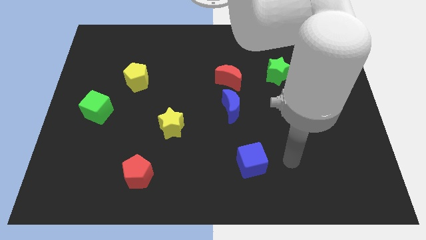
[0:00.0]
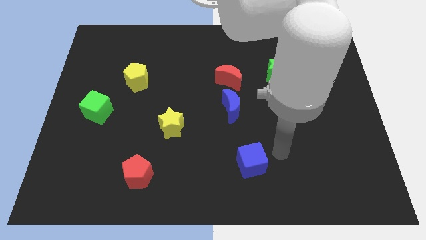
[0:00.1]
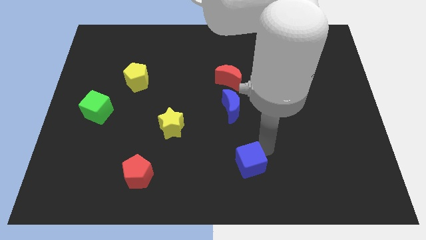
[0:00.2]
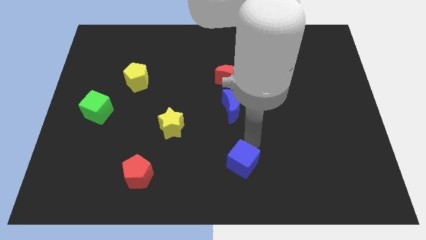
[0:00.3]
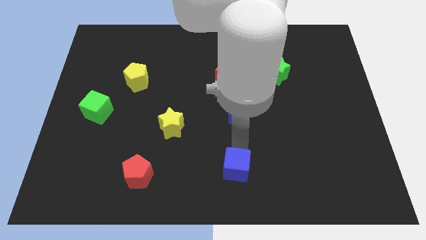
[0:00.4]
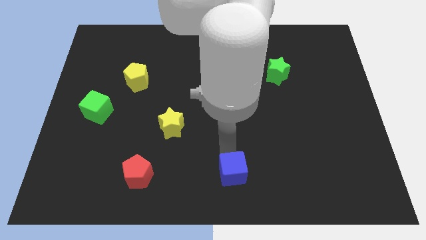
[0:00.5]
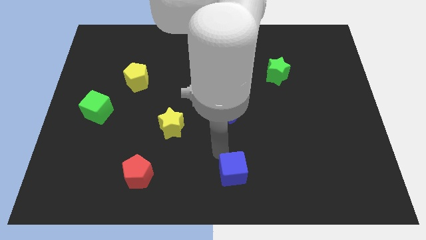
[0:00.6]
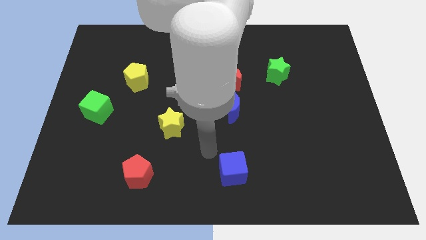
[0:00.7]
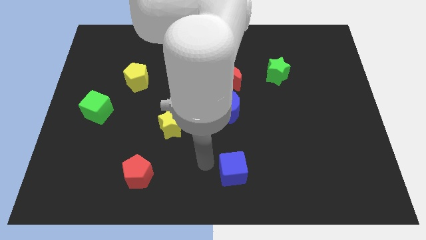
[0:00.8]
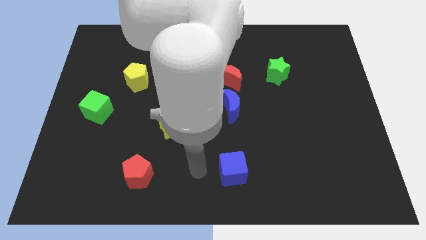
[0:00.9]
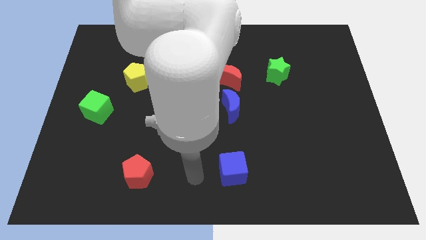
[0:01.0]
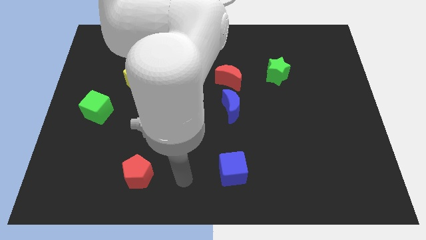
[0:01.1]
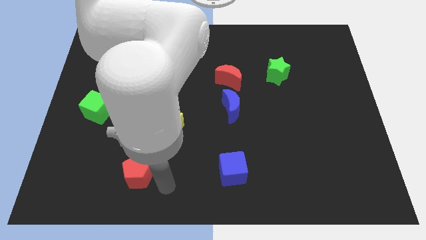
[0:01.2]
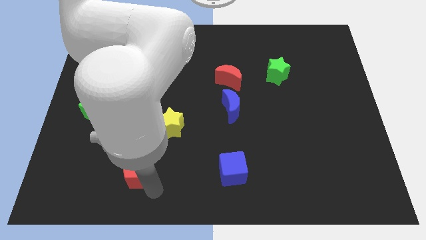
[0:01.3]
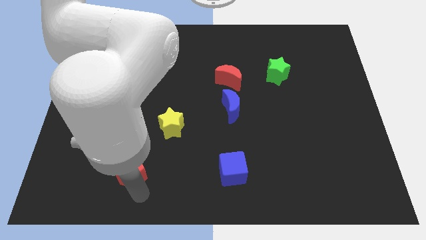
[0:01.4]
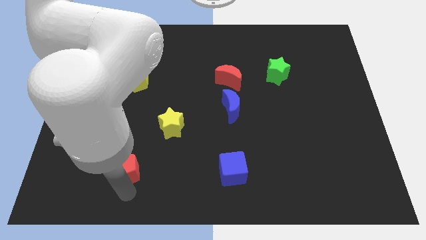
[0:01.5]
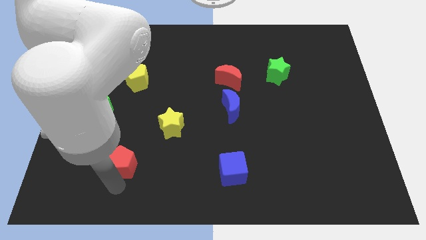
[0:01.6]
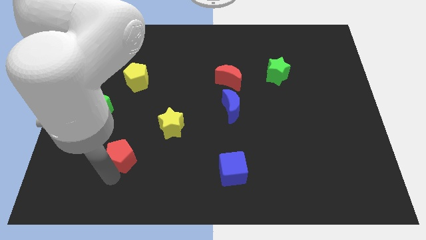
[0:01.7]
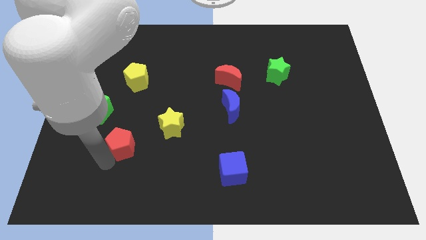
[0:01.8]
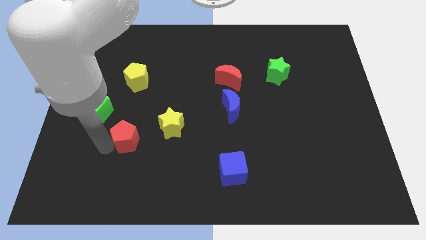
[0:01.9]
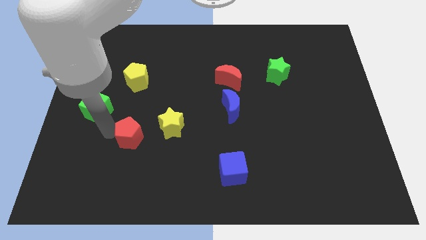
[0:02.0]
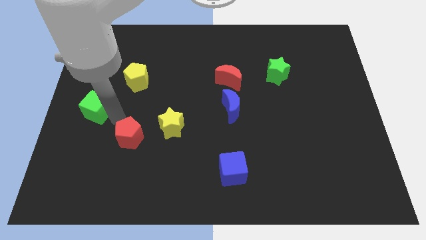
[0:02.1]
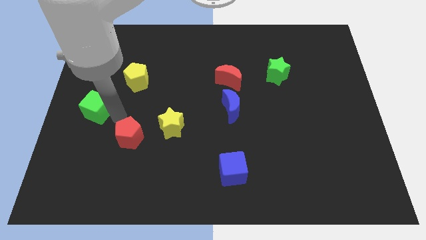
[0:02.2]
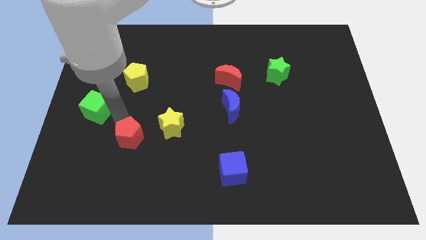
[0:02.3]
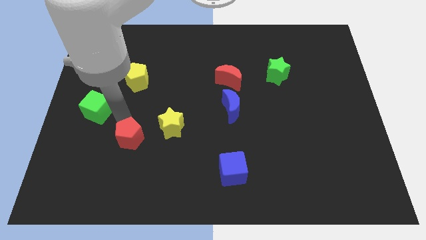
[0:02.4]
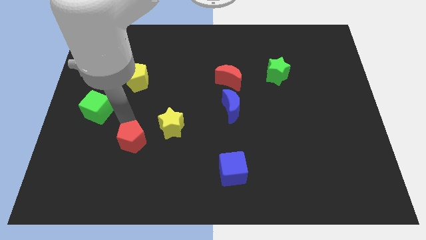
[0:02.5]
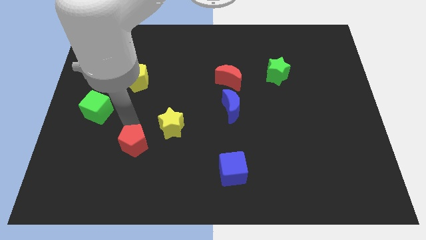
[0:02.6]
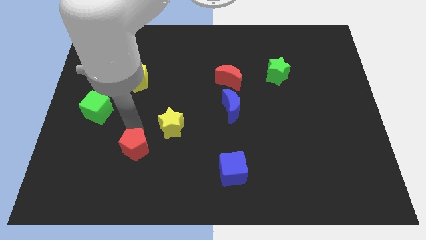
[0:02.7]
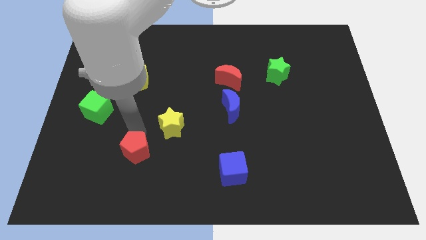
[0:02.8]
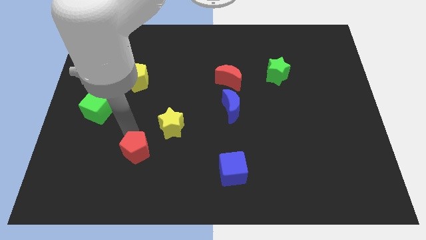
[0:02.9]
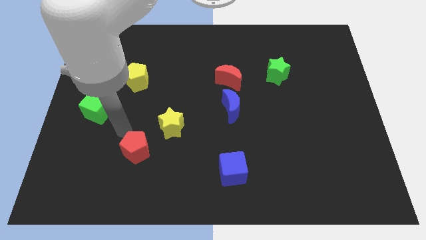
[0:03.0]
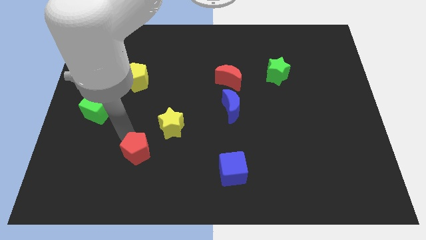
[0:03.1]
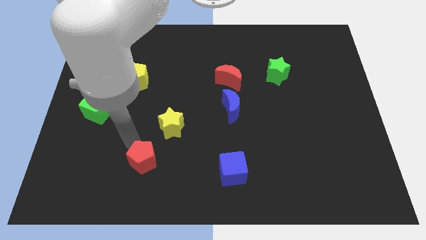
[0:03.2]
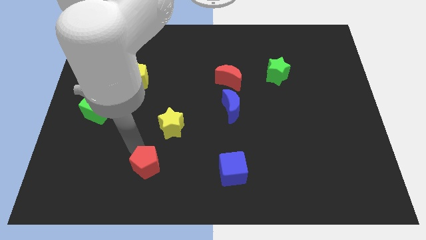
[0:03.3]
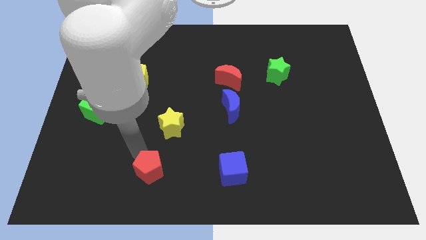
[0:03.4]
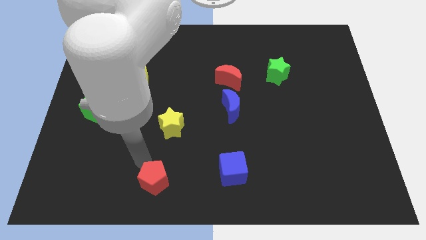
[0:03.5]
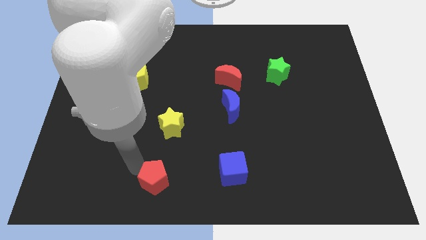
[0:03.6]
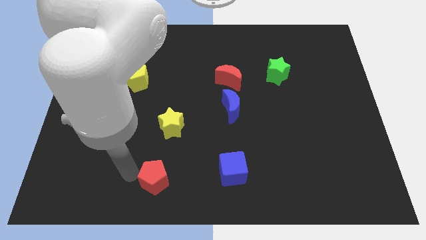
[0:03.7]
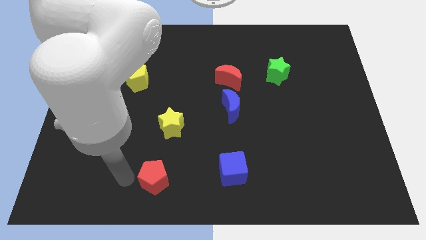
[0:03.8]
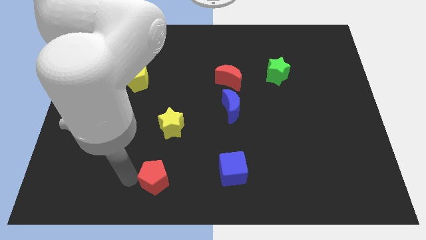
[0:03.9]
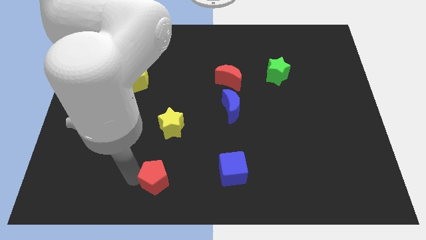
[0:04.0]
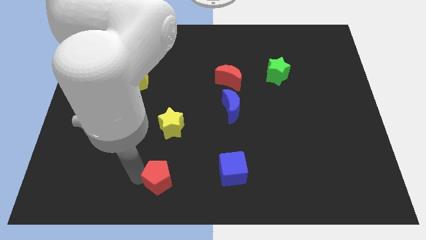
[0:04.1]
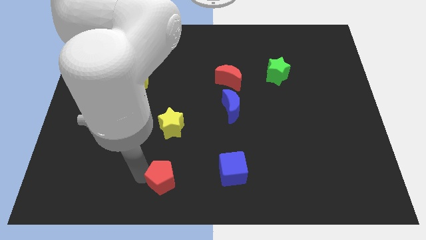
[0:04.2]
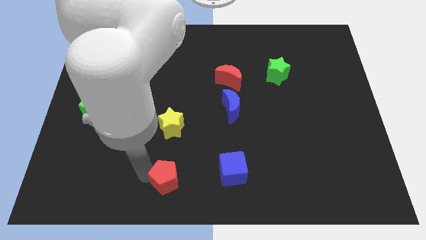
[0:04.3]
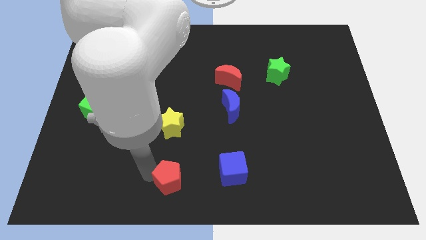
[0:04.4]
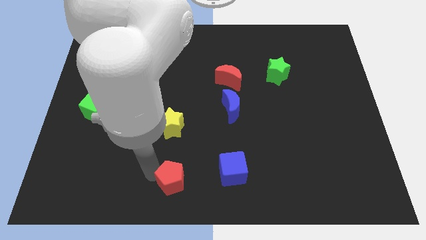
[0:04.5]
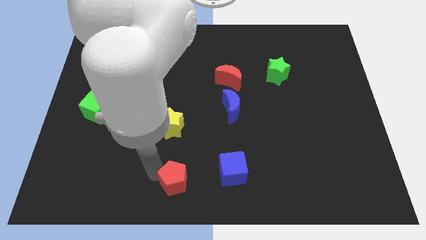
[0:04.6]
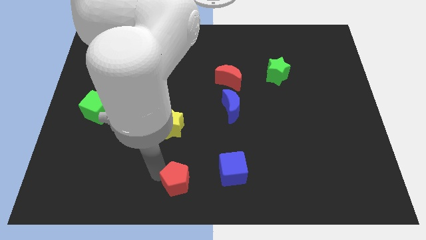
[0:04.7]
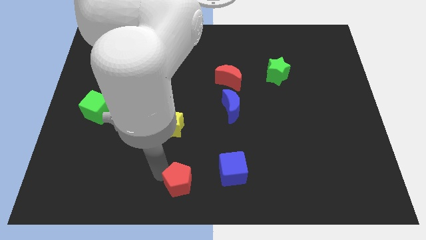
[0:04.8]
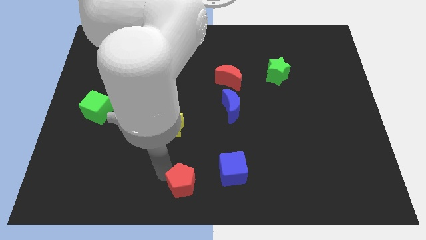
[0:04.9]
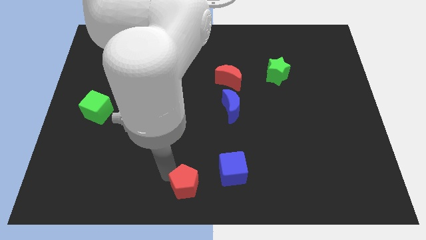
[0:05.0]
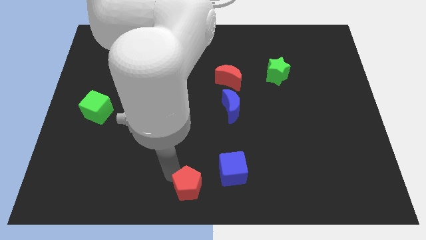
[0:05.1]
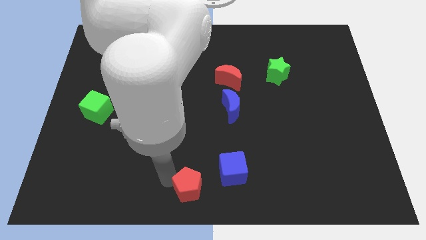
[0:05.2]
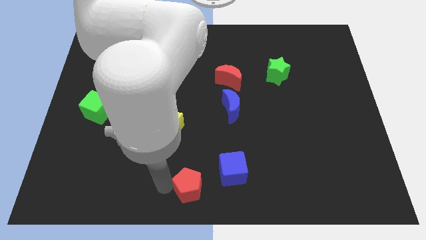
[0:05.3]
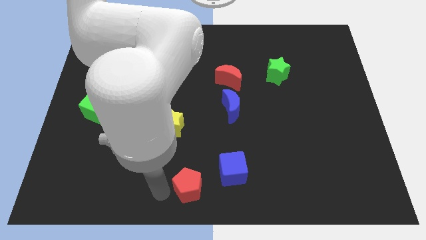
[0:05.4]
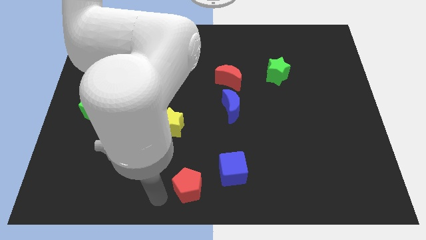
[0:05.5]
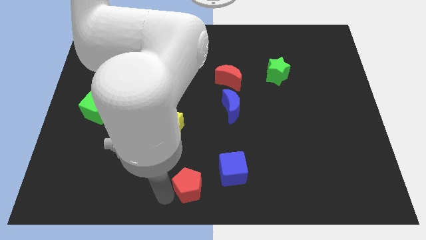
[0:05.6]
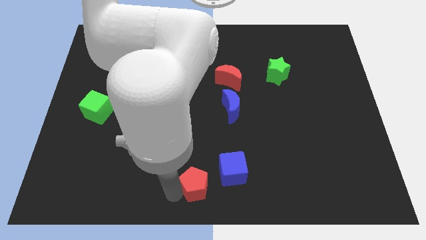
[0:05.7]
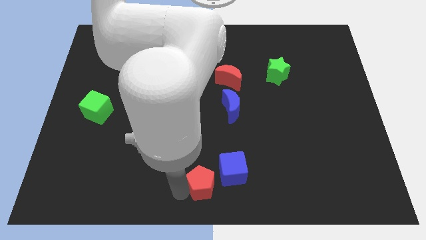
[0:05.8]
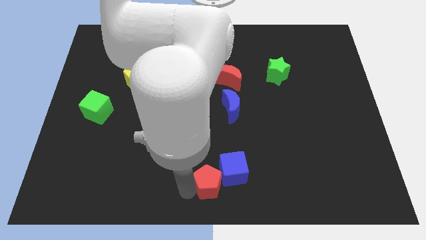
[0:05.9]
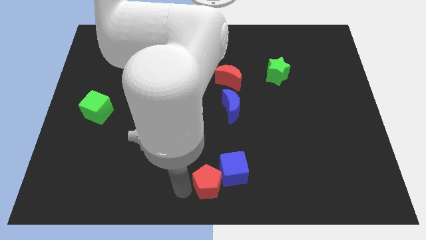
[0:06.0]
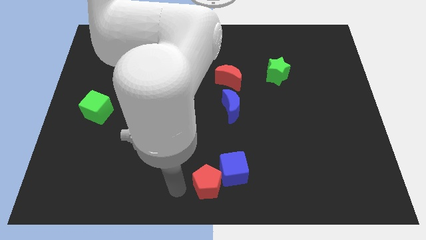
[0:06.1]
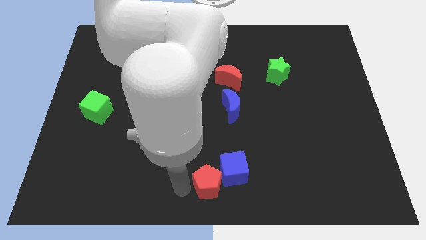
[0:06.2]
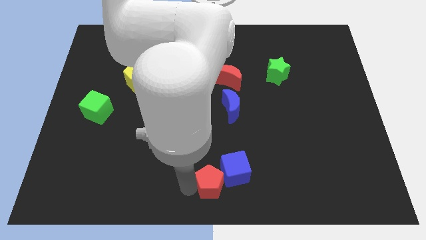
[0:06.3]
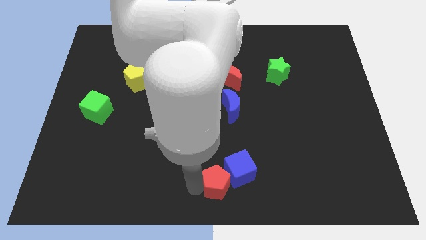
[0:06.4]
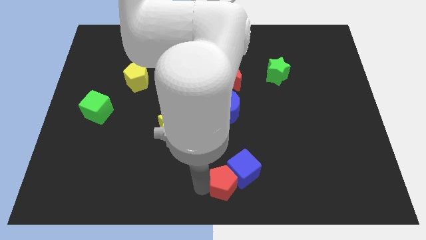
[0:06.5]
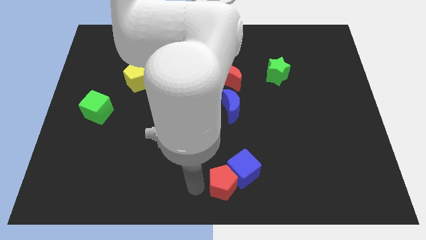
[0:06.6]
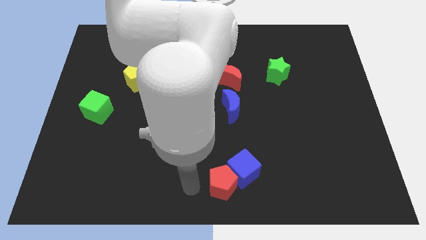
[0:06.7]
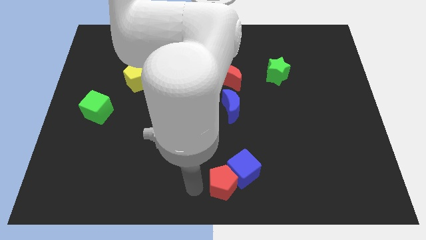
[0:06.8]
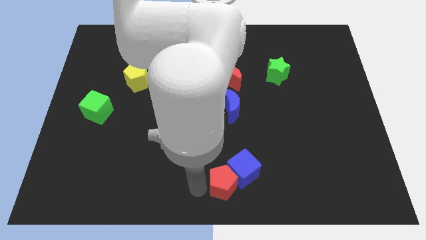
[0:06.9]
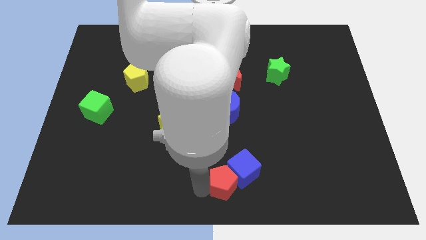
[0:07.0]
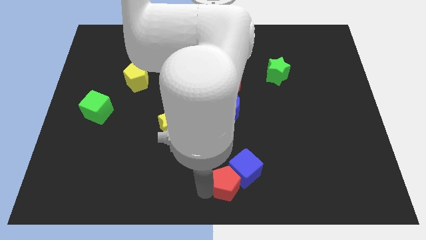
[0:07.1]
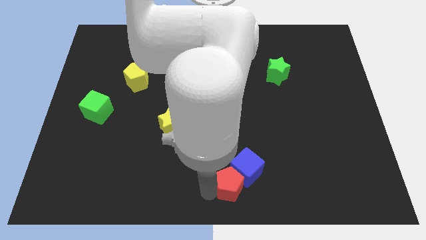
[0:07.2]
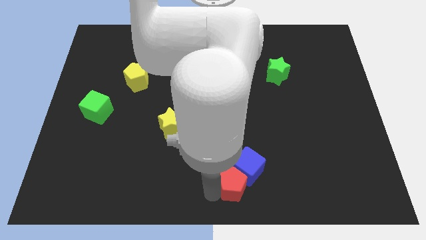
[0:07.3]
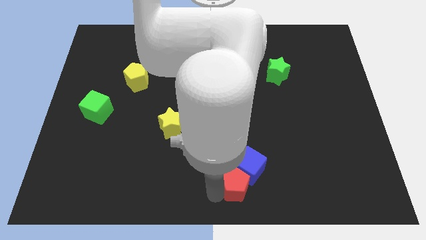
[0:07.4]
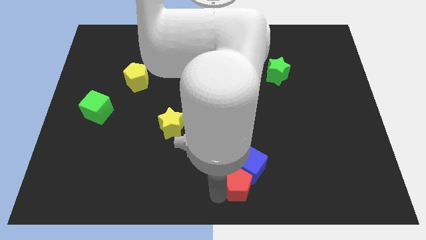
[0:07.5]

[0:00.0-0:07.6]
push the red pentagon to the right

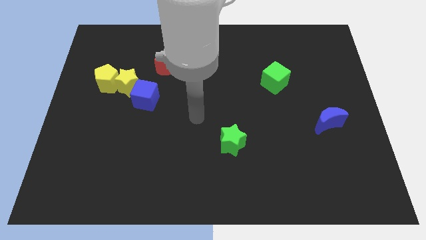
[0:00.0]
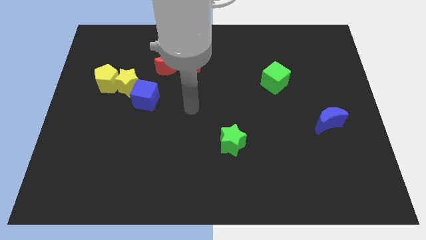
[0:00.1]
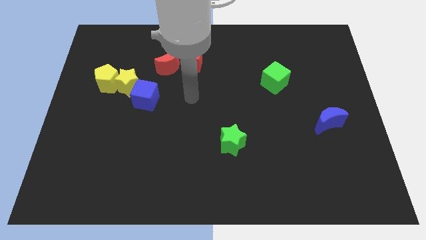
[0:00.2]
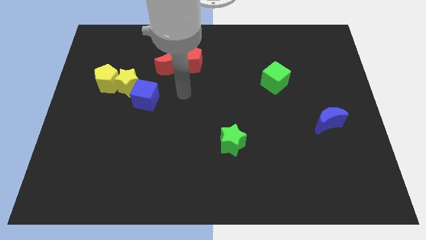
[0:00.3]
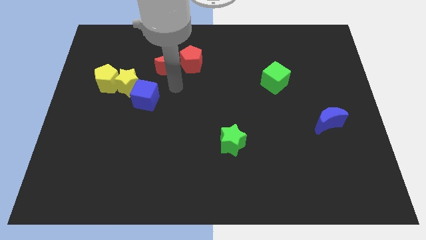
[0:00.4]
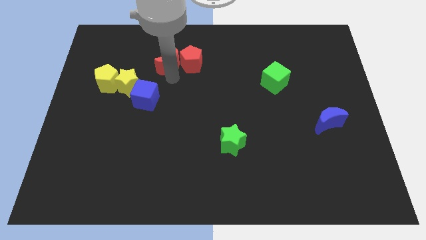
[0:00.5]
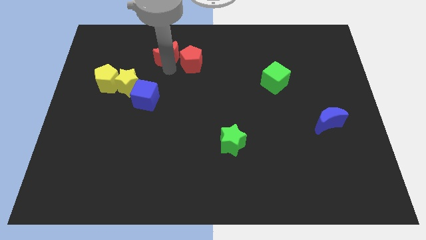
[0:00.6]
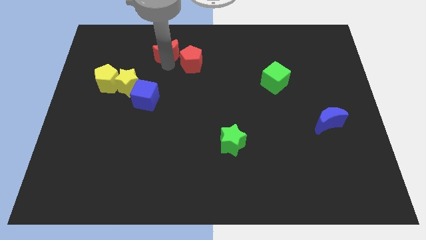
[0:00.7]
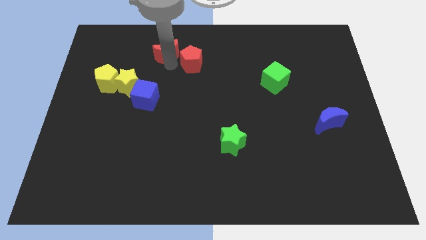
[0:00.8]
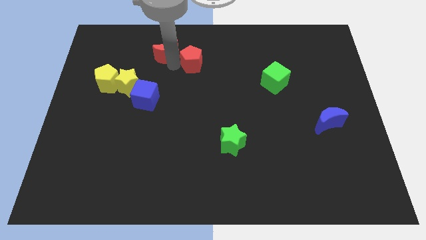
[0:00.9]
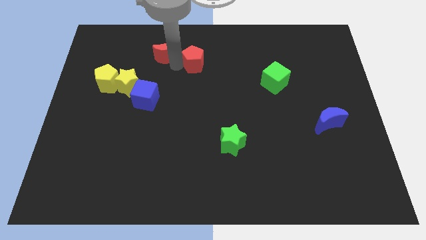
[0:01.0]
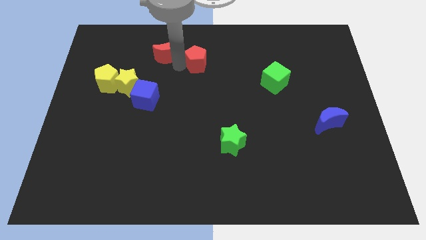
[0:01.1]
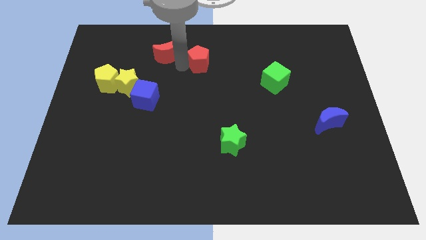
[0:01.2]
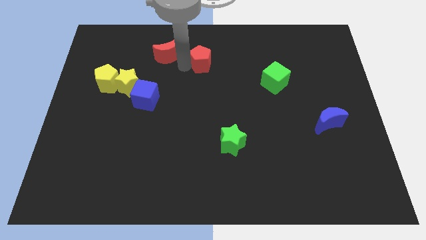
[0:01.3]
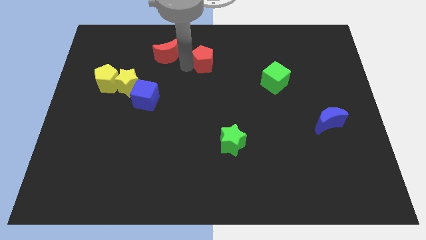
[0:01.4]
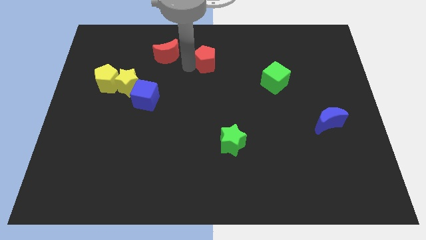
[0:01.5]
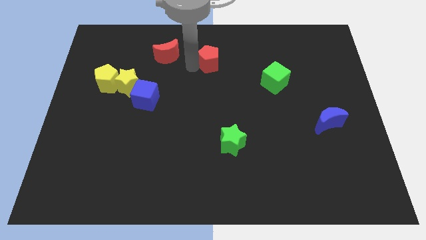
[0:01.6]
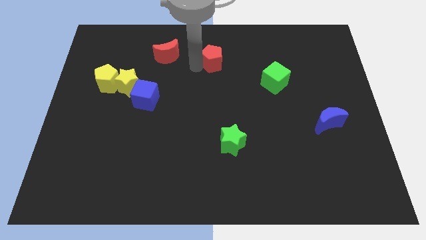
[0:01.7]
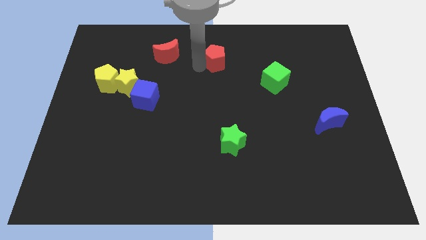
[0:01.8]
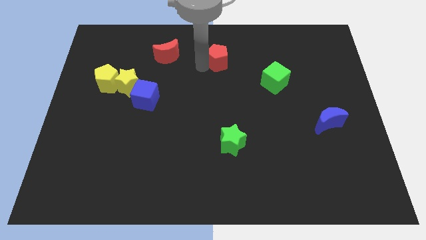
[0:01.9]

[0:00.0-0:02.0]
slide the red pentagon right slightly
